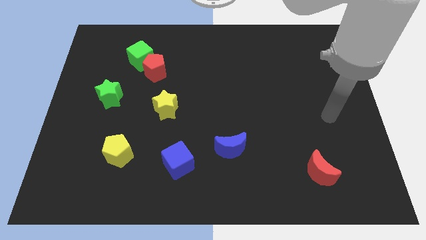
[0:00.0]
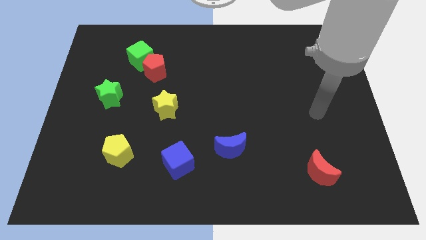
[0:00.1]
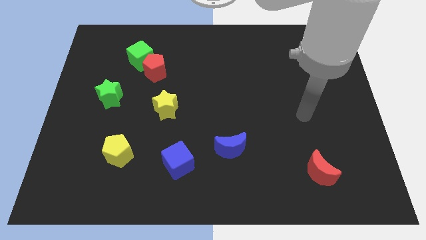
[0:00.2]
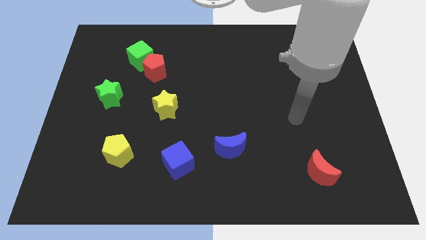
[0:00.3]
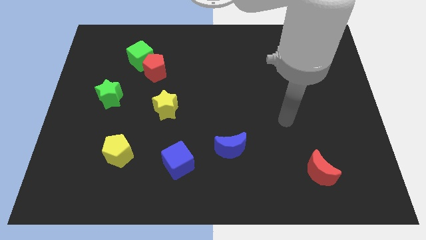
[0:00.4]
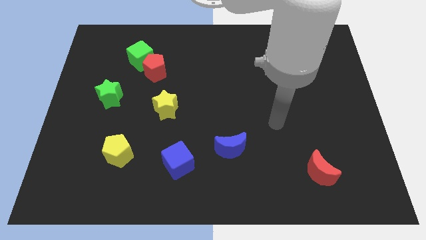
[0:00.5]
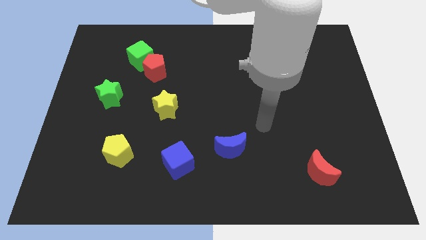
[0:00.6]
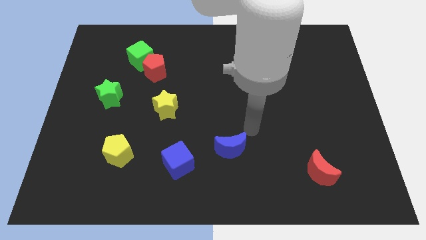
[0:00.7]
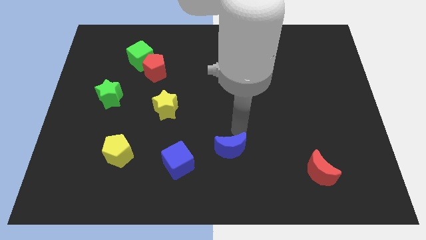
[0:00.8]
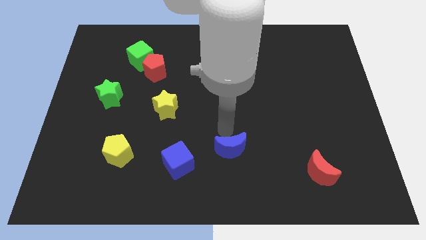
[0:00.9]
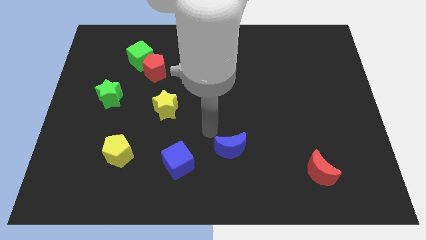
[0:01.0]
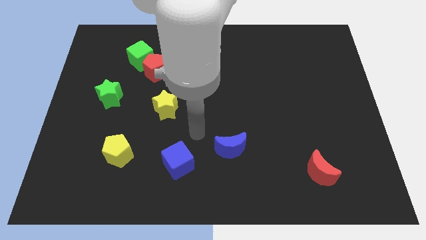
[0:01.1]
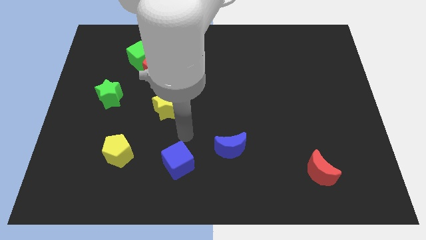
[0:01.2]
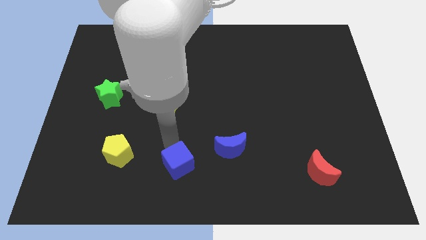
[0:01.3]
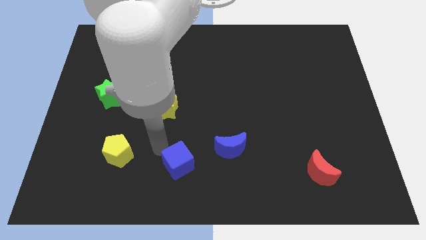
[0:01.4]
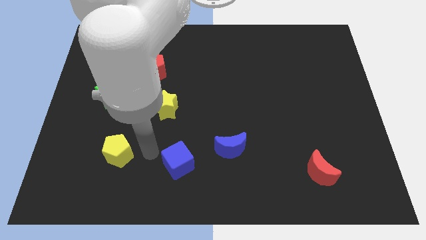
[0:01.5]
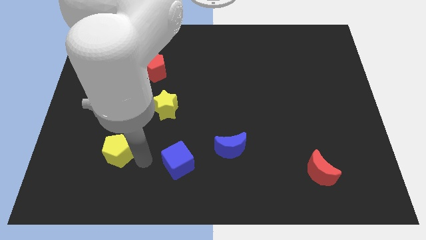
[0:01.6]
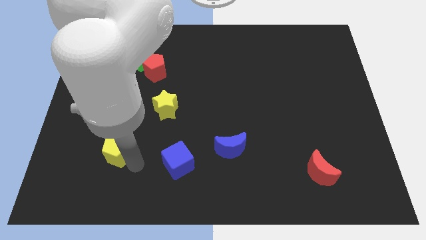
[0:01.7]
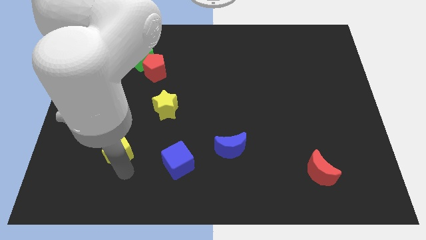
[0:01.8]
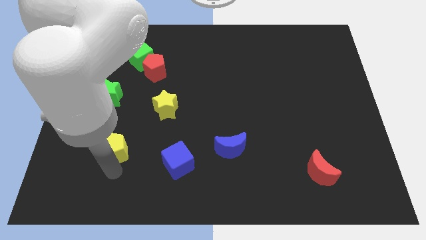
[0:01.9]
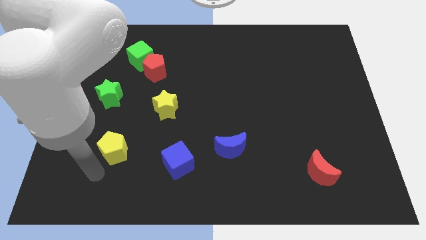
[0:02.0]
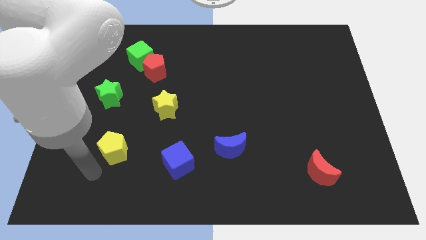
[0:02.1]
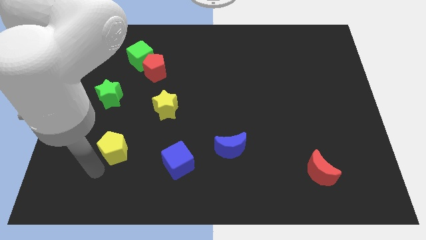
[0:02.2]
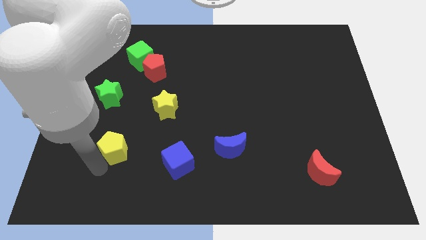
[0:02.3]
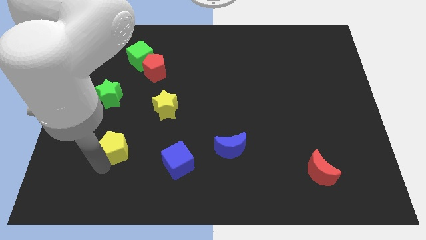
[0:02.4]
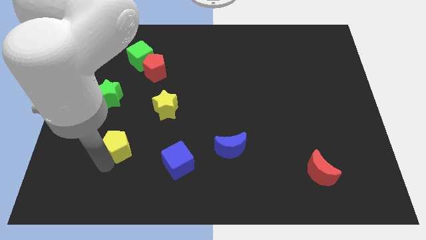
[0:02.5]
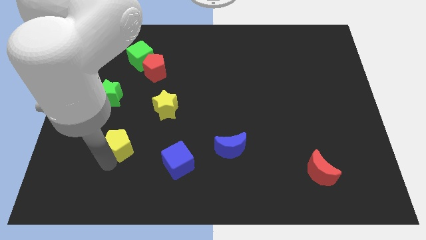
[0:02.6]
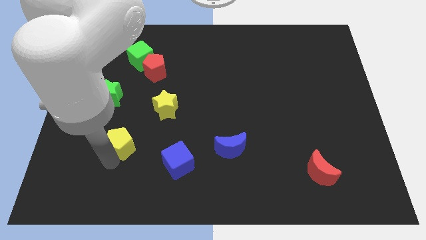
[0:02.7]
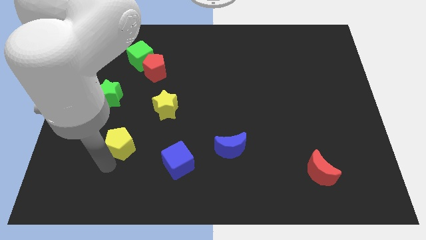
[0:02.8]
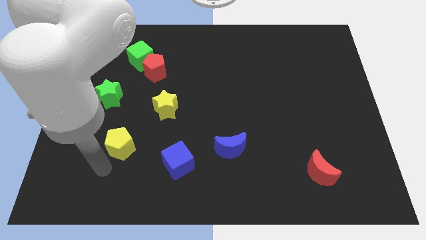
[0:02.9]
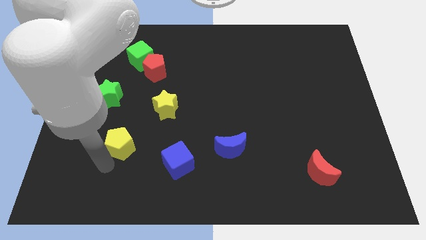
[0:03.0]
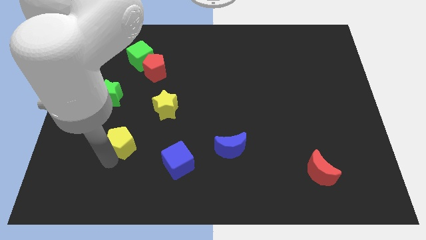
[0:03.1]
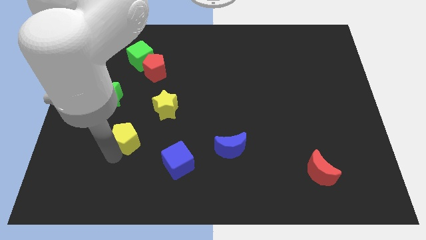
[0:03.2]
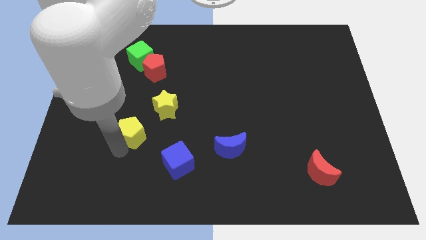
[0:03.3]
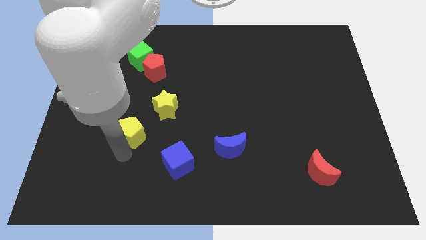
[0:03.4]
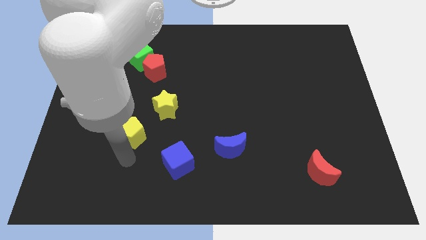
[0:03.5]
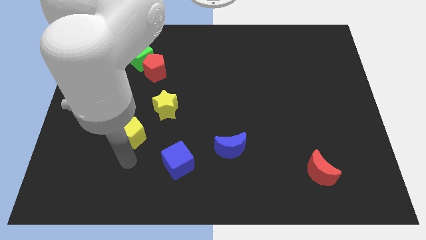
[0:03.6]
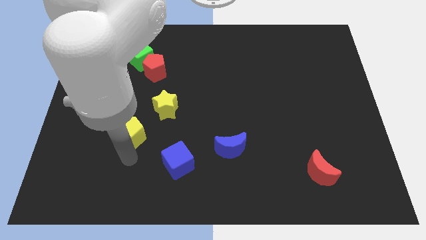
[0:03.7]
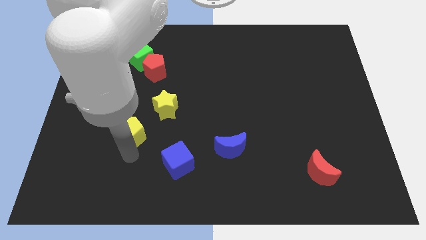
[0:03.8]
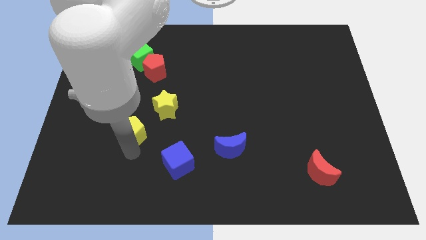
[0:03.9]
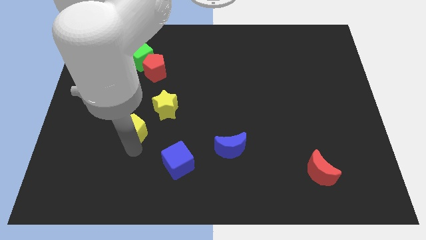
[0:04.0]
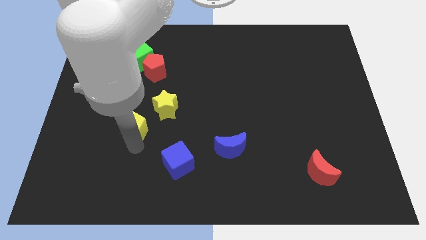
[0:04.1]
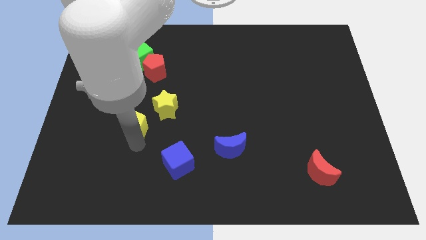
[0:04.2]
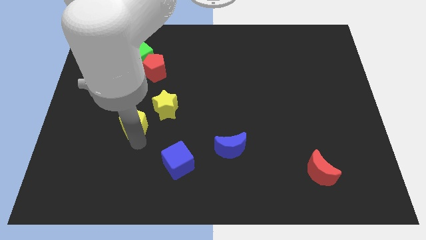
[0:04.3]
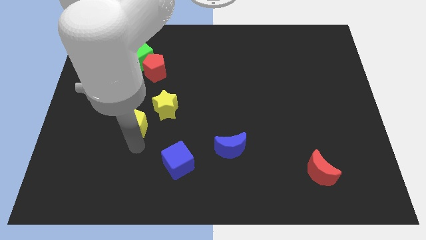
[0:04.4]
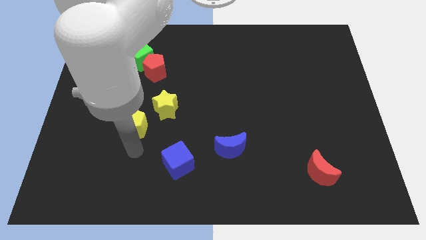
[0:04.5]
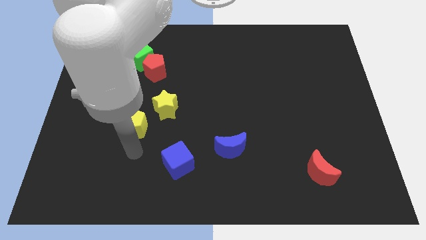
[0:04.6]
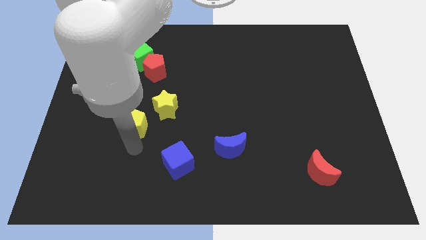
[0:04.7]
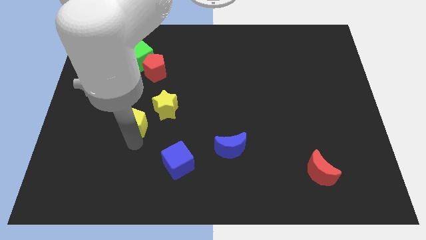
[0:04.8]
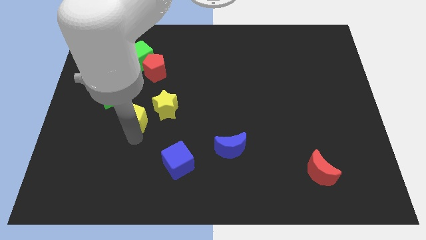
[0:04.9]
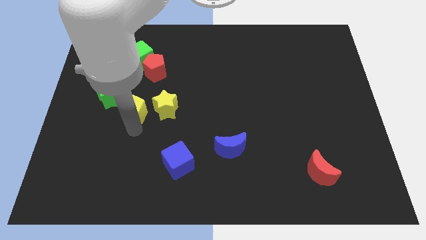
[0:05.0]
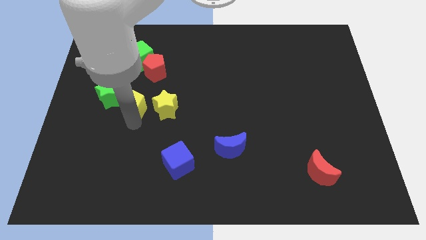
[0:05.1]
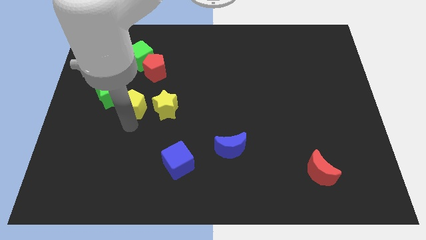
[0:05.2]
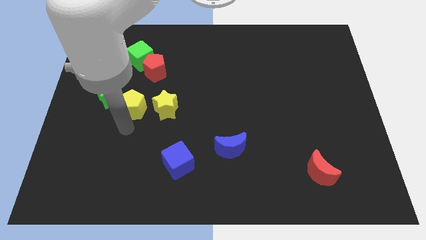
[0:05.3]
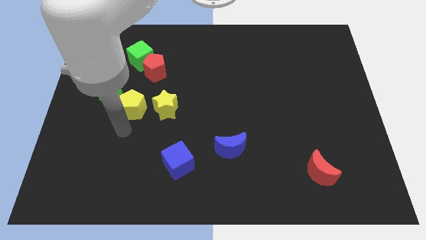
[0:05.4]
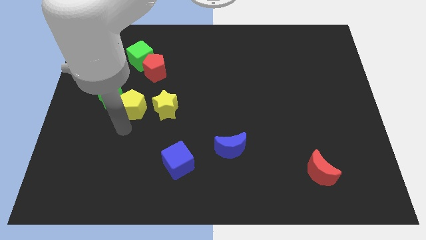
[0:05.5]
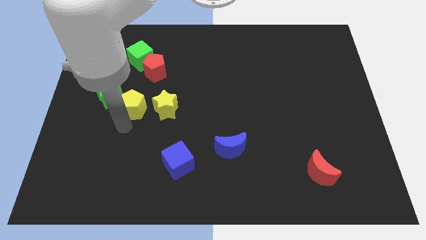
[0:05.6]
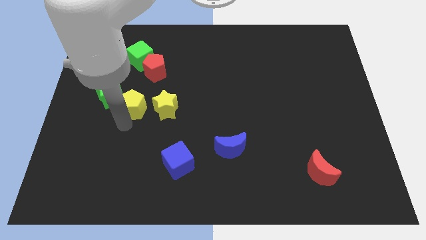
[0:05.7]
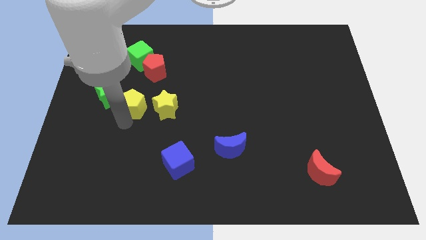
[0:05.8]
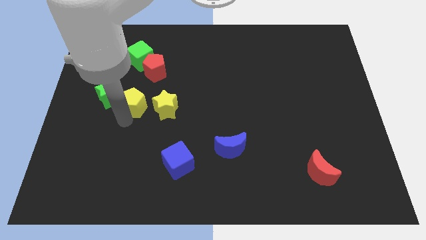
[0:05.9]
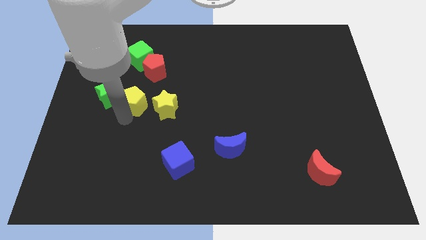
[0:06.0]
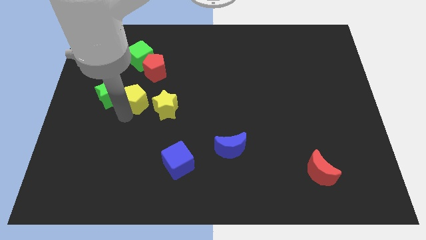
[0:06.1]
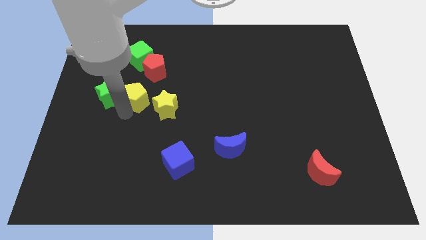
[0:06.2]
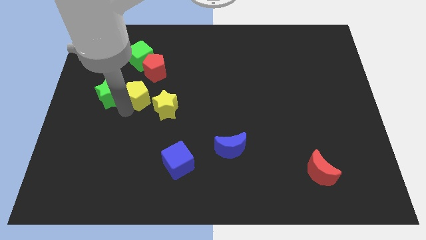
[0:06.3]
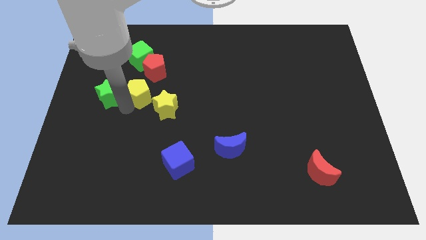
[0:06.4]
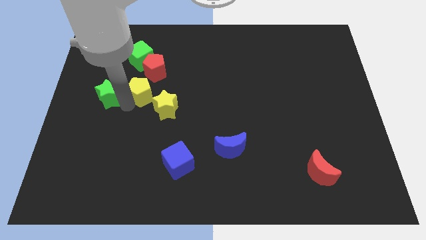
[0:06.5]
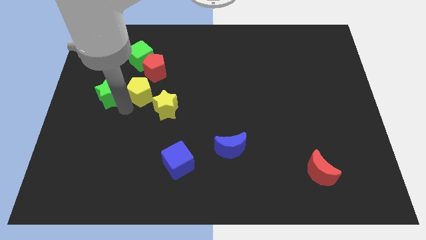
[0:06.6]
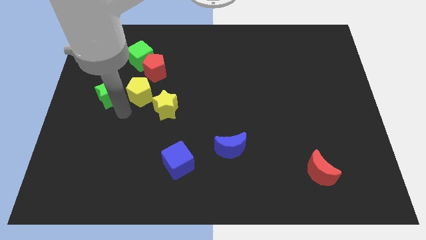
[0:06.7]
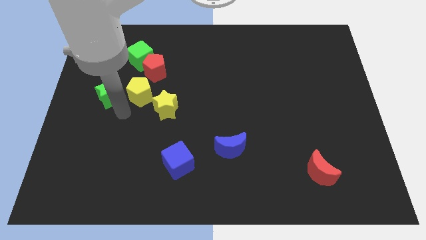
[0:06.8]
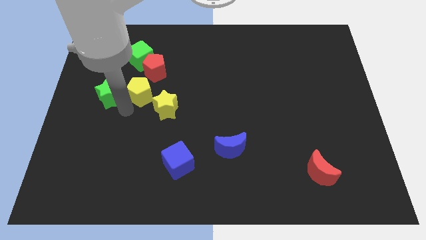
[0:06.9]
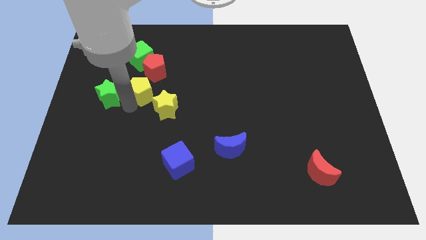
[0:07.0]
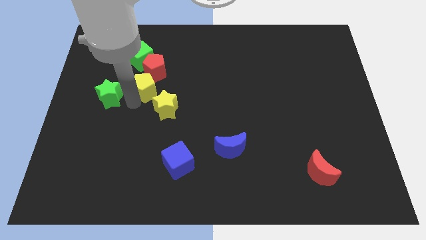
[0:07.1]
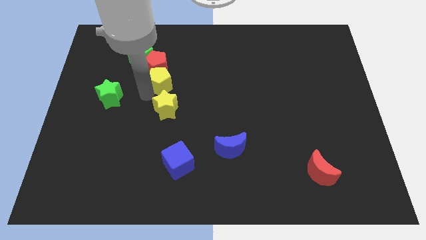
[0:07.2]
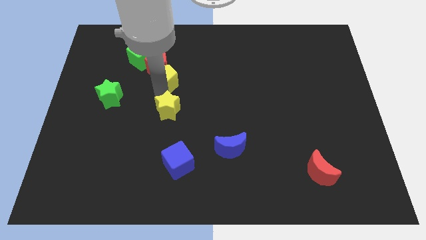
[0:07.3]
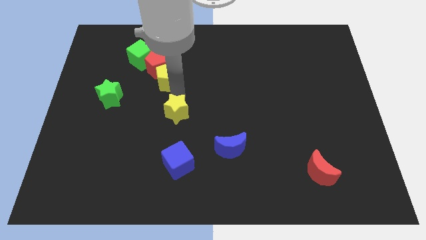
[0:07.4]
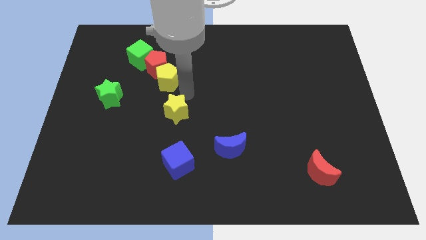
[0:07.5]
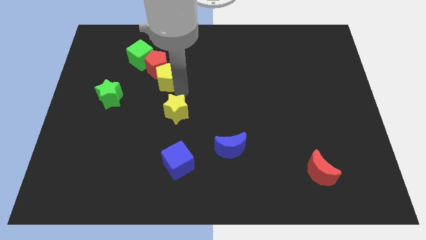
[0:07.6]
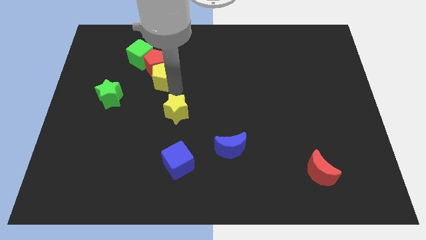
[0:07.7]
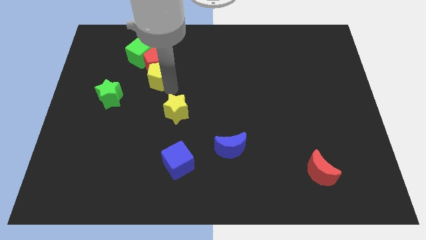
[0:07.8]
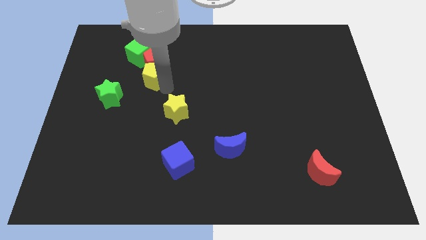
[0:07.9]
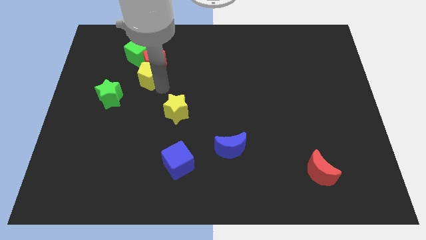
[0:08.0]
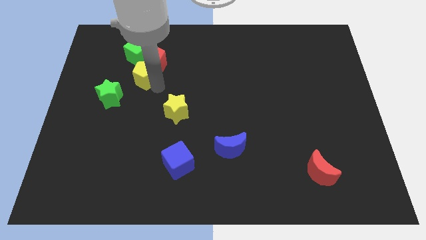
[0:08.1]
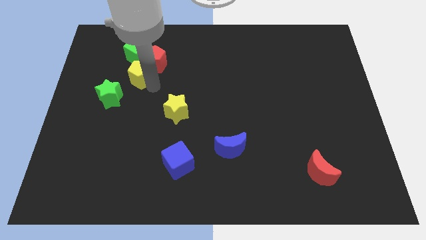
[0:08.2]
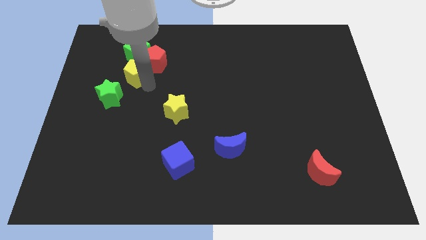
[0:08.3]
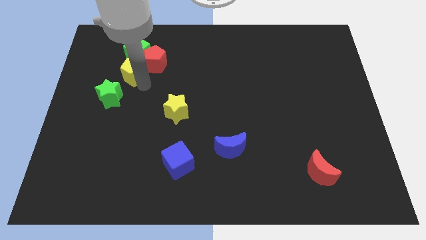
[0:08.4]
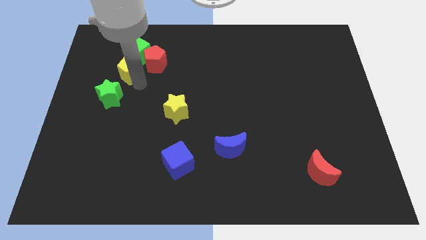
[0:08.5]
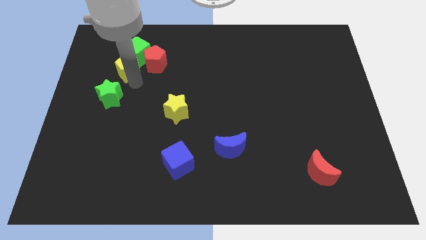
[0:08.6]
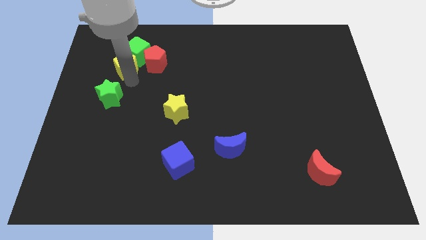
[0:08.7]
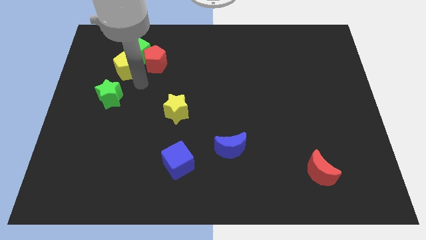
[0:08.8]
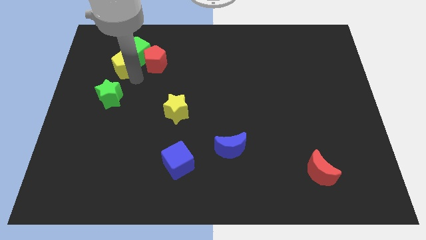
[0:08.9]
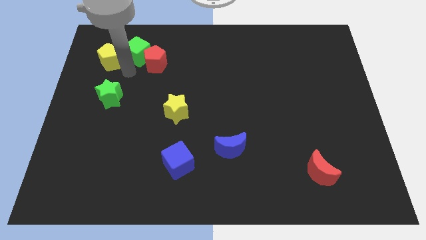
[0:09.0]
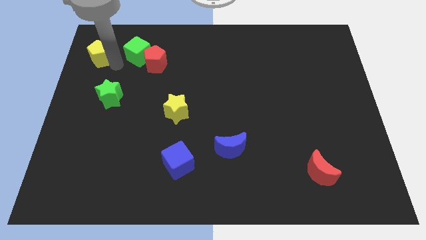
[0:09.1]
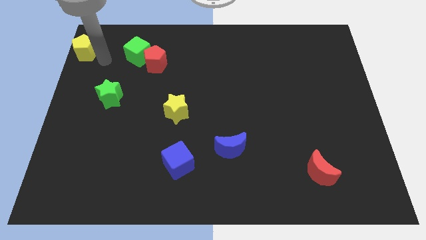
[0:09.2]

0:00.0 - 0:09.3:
move the yellow pentagon to the top left
